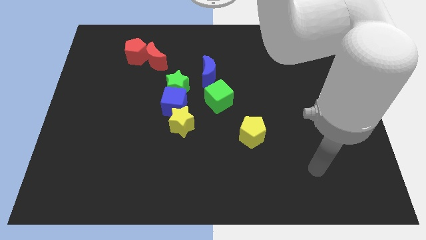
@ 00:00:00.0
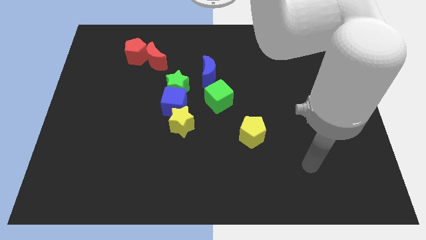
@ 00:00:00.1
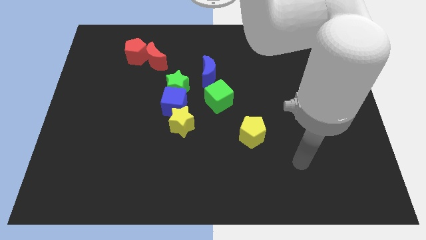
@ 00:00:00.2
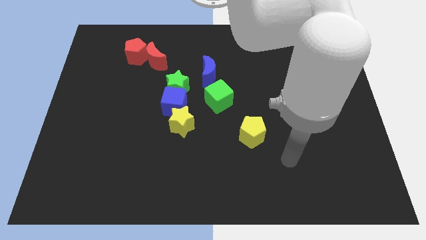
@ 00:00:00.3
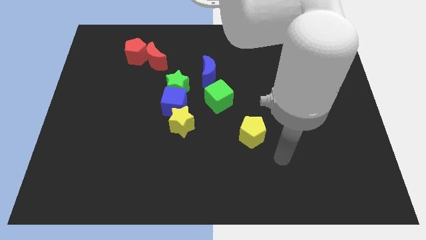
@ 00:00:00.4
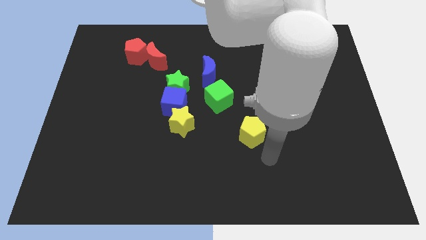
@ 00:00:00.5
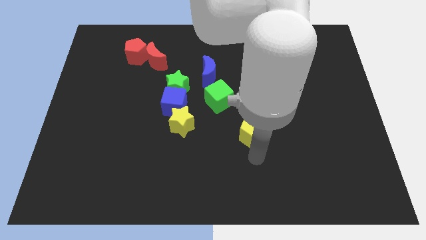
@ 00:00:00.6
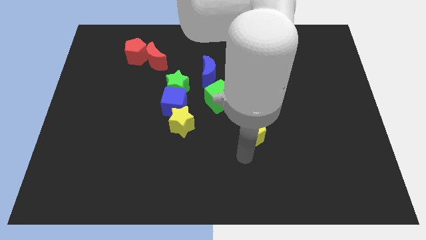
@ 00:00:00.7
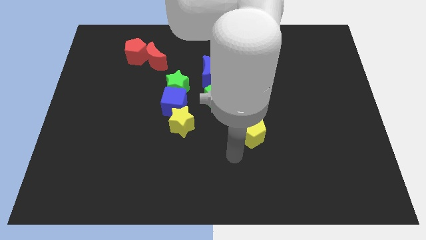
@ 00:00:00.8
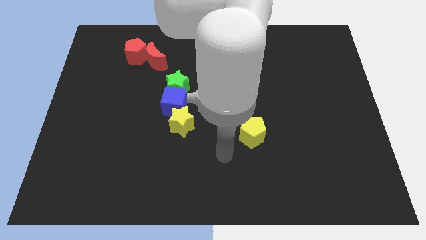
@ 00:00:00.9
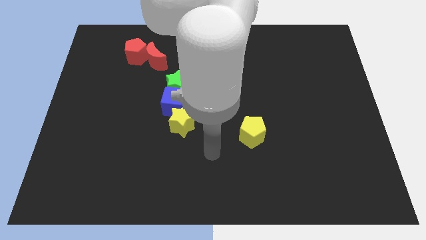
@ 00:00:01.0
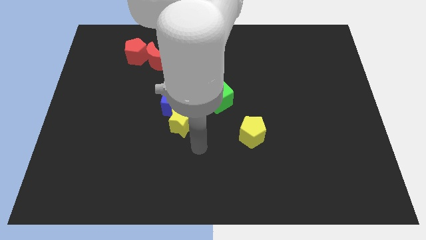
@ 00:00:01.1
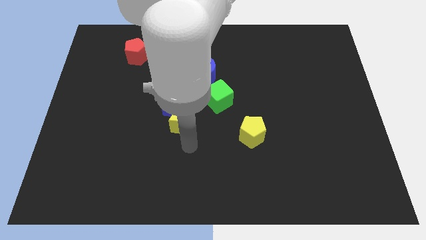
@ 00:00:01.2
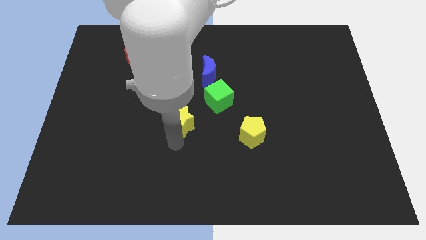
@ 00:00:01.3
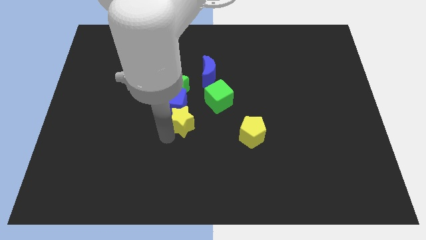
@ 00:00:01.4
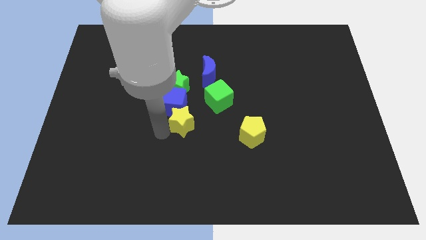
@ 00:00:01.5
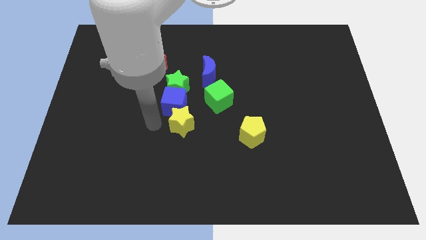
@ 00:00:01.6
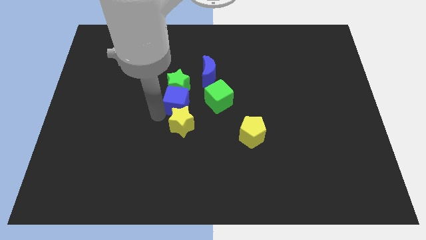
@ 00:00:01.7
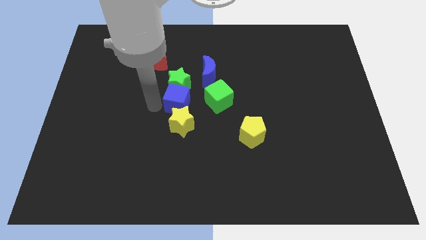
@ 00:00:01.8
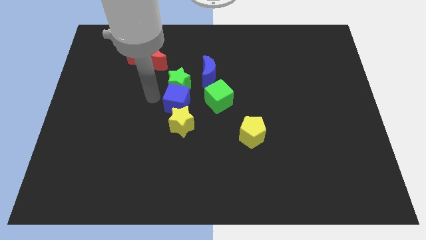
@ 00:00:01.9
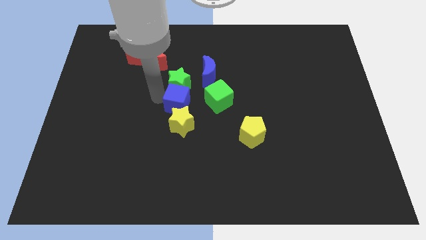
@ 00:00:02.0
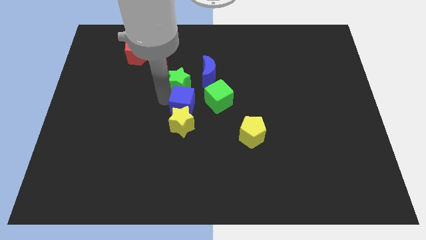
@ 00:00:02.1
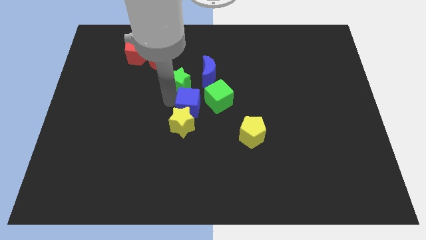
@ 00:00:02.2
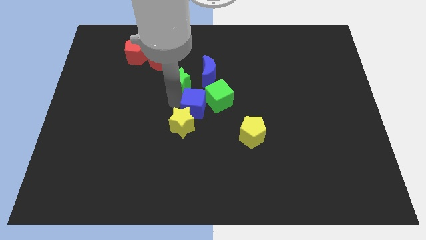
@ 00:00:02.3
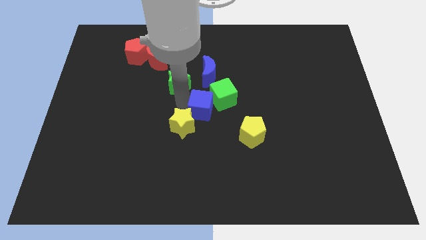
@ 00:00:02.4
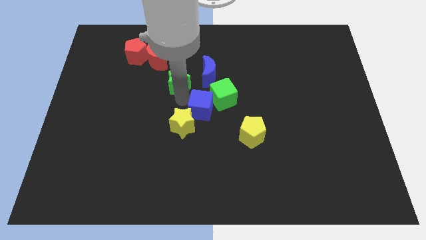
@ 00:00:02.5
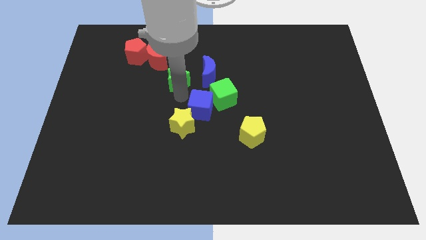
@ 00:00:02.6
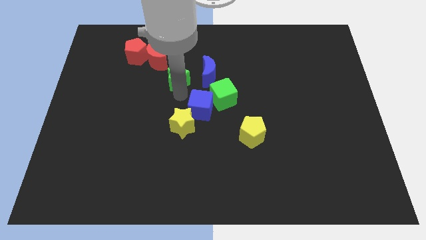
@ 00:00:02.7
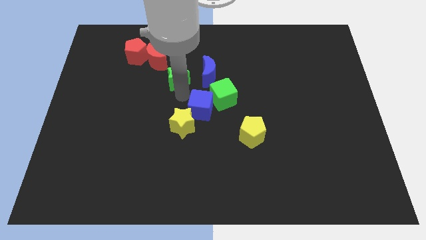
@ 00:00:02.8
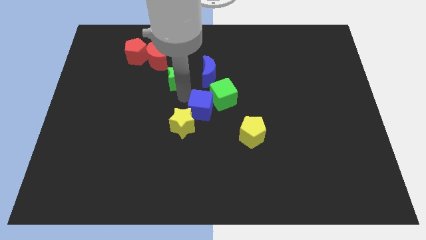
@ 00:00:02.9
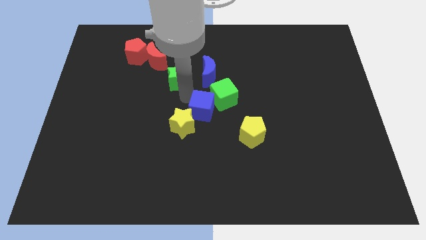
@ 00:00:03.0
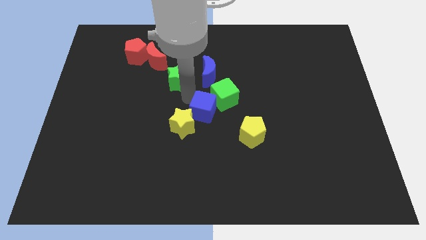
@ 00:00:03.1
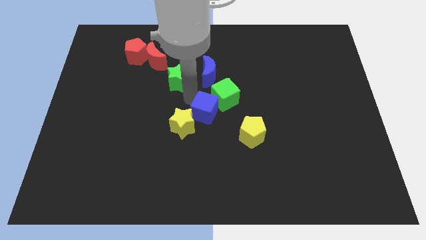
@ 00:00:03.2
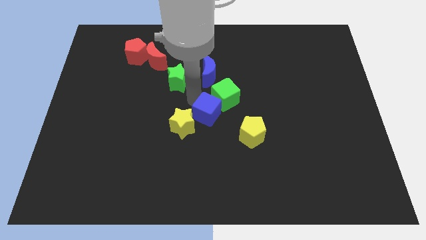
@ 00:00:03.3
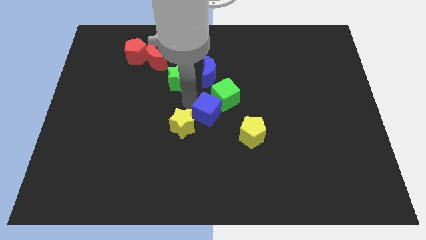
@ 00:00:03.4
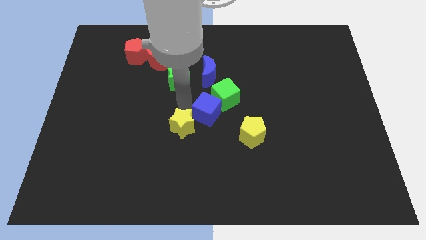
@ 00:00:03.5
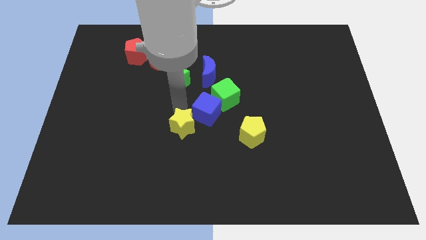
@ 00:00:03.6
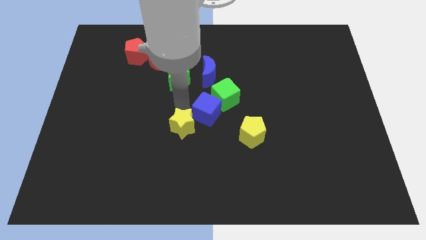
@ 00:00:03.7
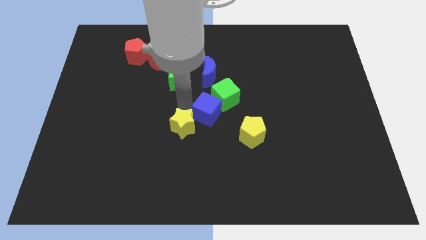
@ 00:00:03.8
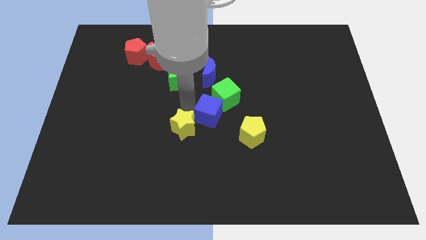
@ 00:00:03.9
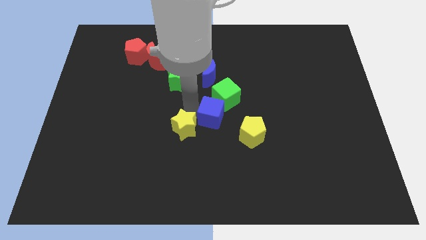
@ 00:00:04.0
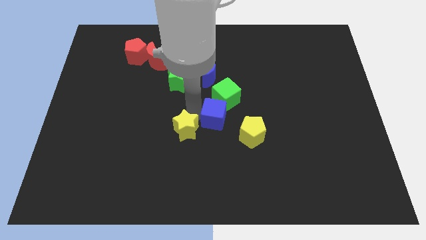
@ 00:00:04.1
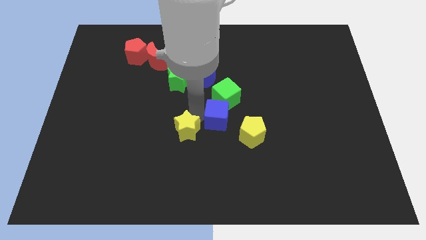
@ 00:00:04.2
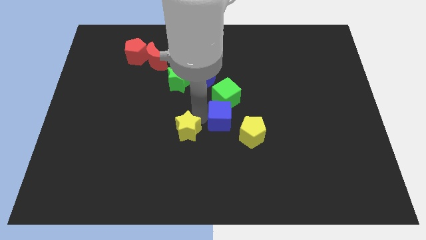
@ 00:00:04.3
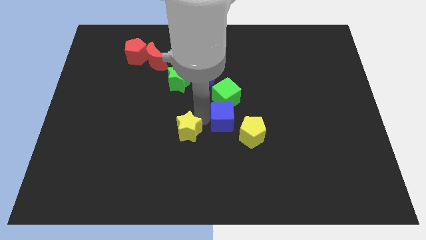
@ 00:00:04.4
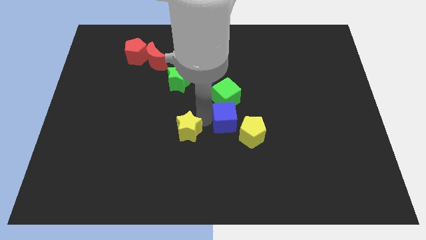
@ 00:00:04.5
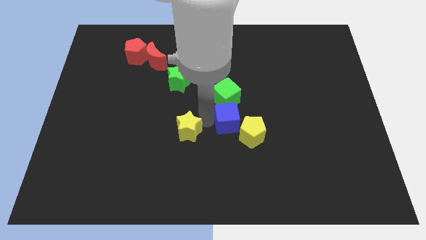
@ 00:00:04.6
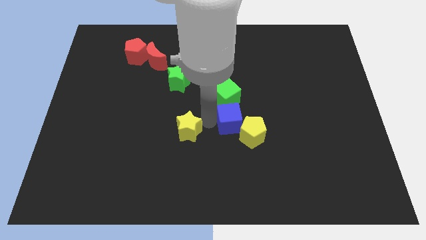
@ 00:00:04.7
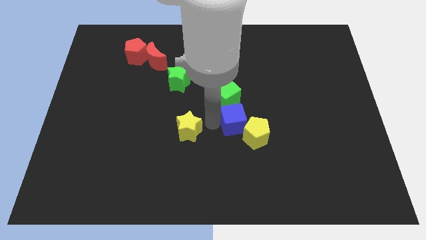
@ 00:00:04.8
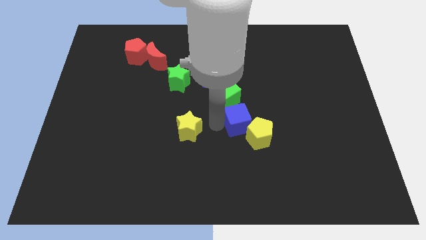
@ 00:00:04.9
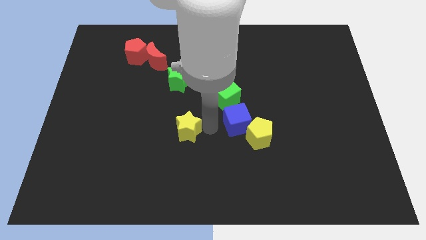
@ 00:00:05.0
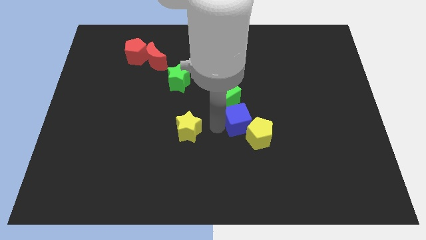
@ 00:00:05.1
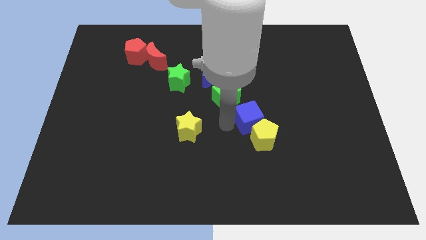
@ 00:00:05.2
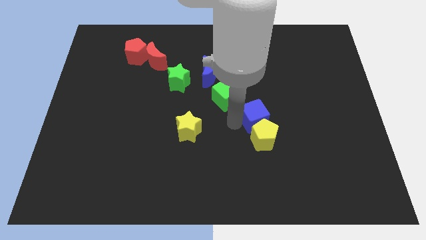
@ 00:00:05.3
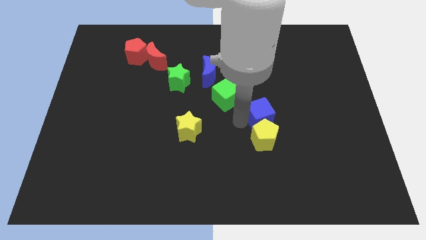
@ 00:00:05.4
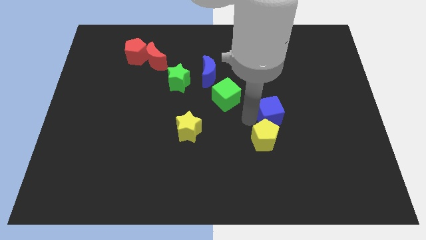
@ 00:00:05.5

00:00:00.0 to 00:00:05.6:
slide the blue cube right

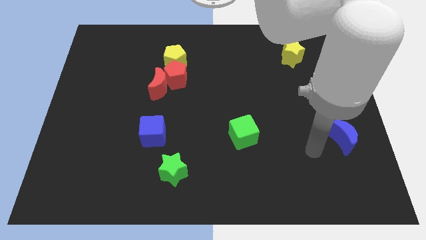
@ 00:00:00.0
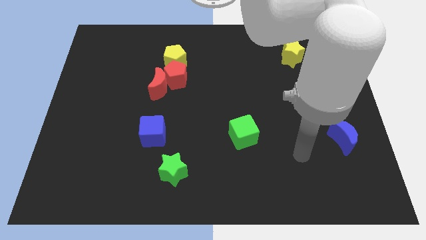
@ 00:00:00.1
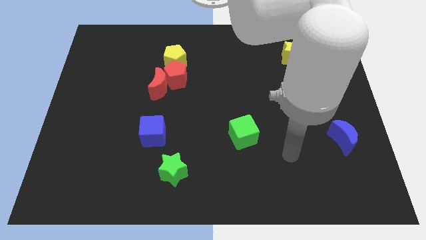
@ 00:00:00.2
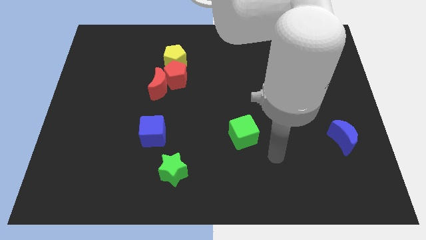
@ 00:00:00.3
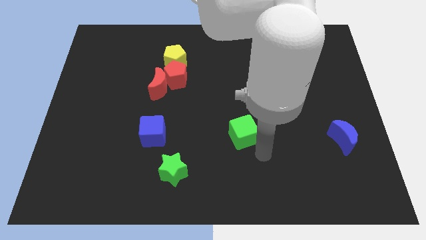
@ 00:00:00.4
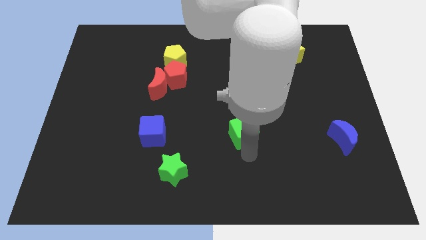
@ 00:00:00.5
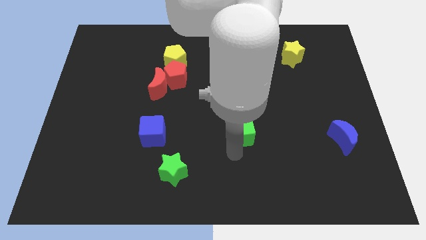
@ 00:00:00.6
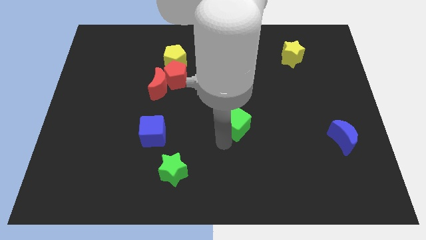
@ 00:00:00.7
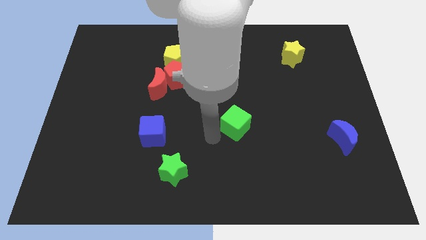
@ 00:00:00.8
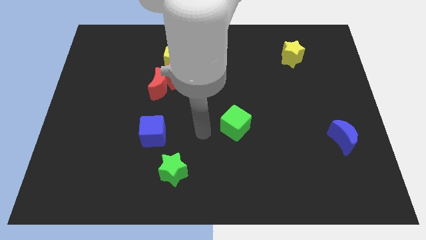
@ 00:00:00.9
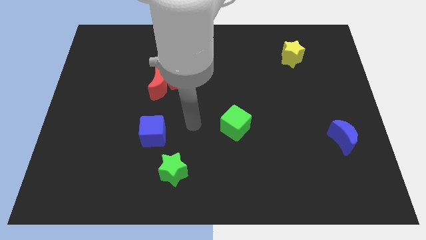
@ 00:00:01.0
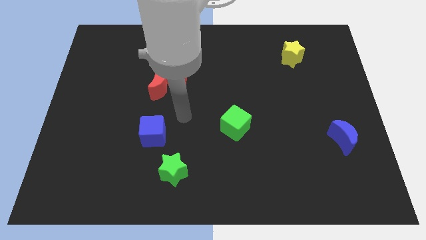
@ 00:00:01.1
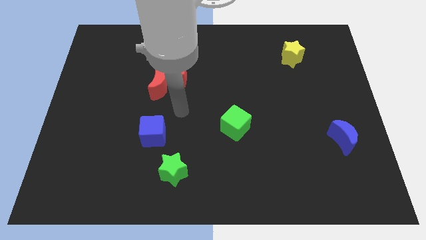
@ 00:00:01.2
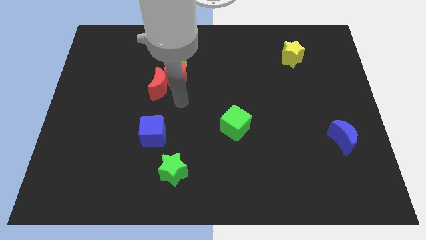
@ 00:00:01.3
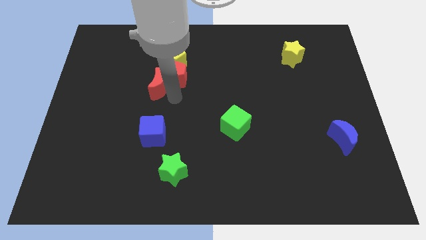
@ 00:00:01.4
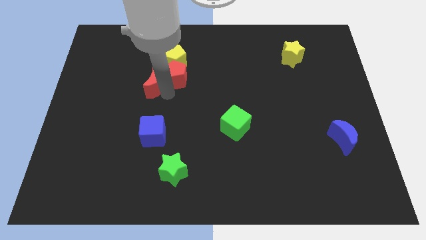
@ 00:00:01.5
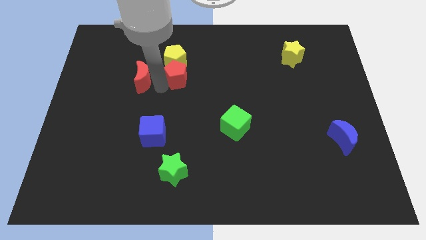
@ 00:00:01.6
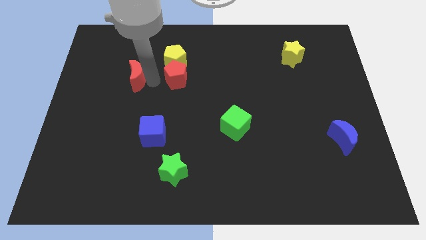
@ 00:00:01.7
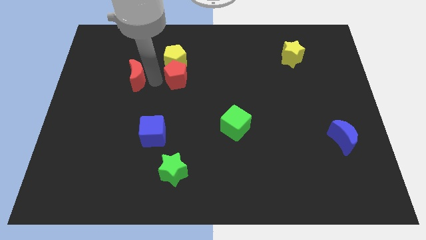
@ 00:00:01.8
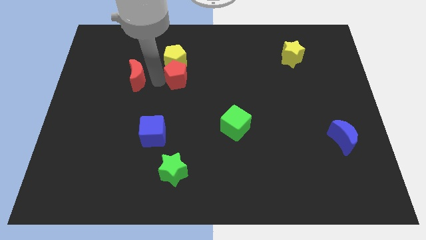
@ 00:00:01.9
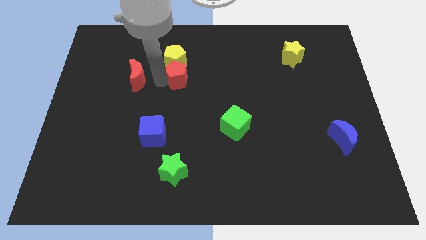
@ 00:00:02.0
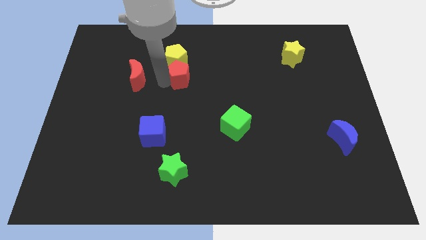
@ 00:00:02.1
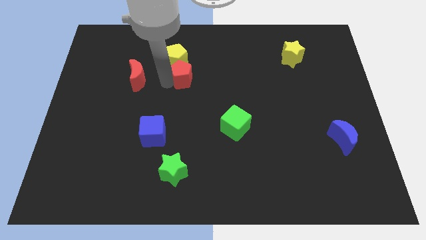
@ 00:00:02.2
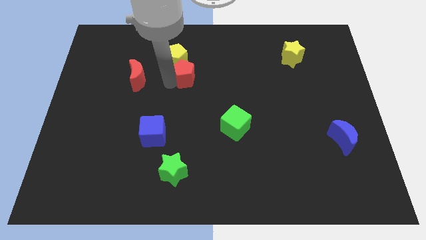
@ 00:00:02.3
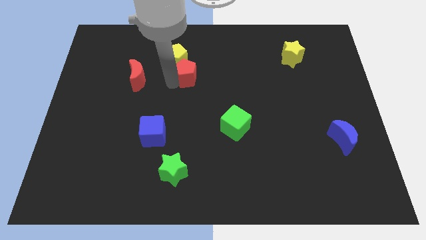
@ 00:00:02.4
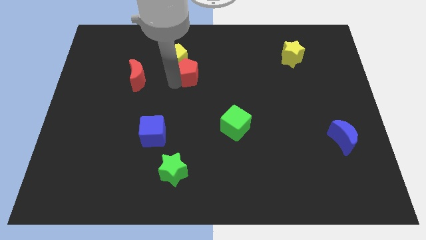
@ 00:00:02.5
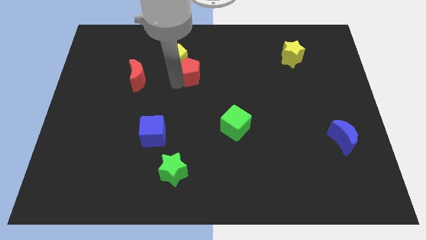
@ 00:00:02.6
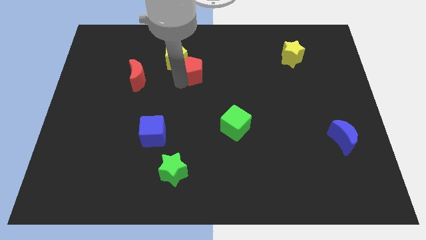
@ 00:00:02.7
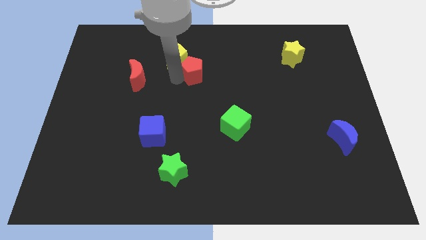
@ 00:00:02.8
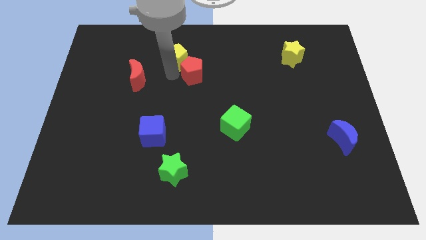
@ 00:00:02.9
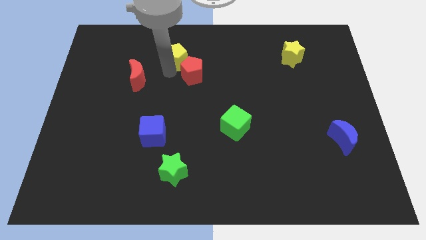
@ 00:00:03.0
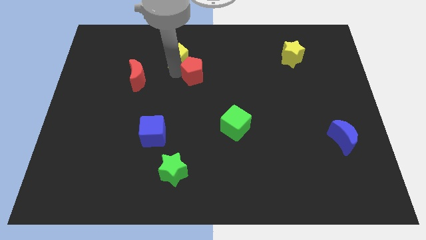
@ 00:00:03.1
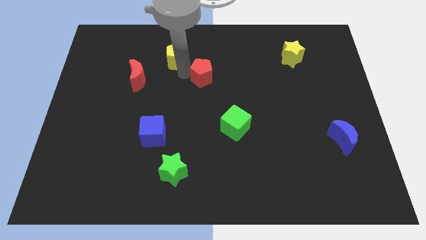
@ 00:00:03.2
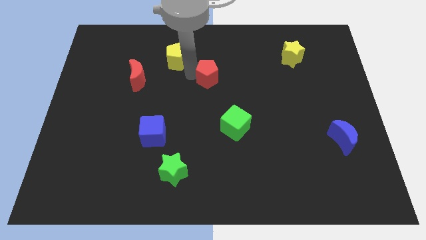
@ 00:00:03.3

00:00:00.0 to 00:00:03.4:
slightly push the red pentagon right
